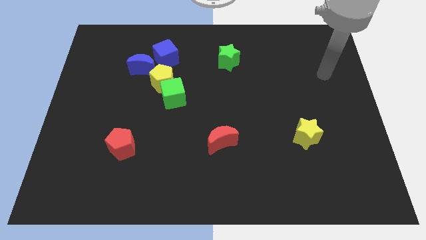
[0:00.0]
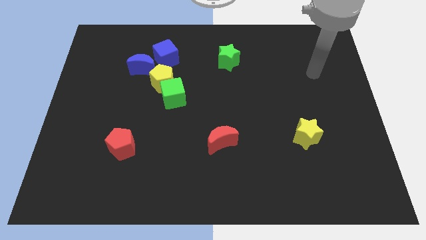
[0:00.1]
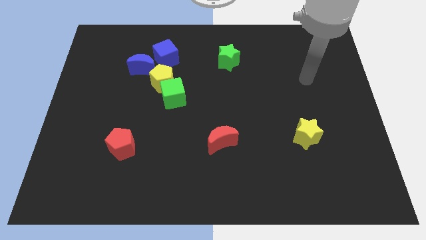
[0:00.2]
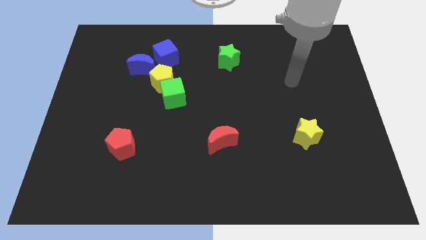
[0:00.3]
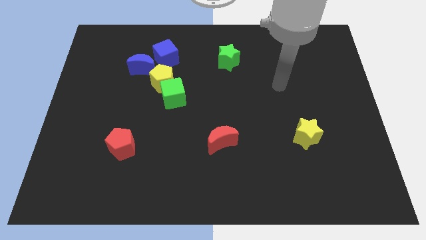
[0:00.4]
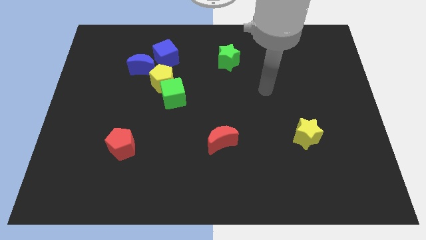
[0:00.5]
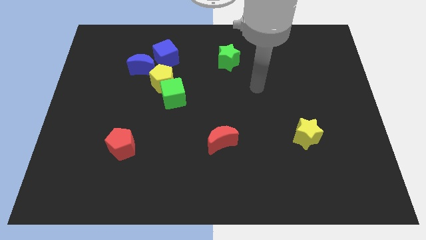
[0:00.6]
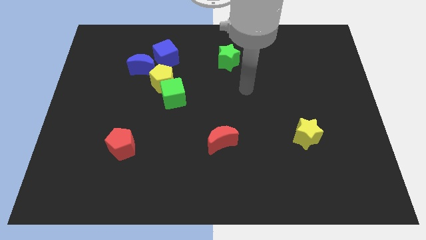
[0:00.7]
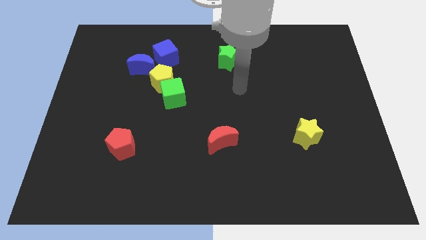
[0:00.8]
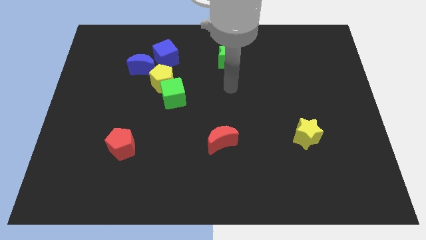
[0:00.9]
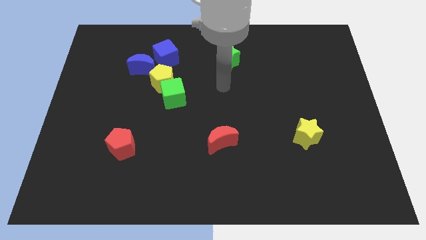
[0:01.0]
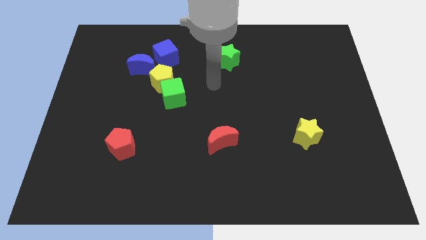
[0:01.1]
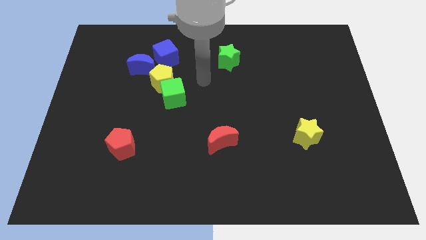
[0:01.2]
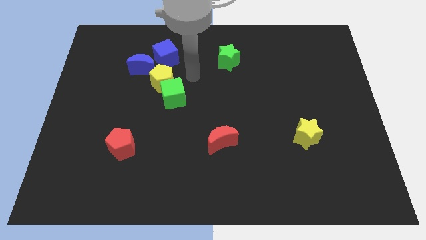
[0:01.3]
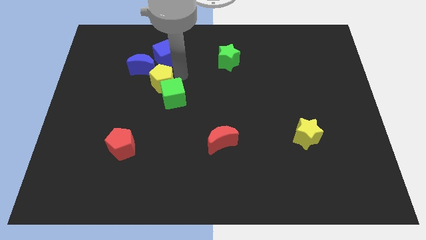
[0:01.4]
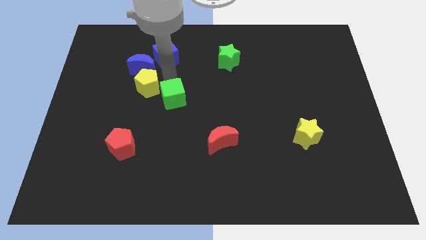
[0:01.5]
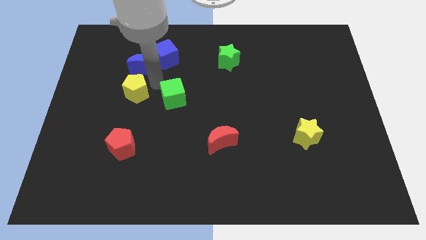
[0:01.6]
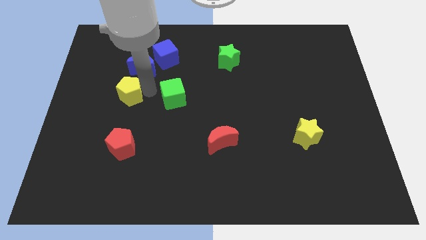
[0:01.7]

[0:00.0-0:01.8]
separate the green cube from the yellow pentagon

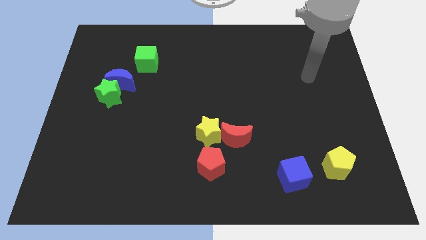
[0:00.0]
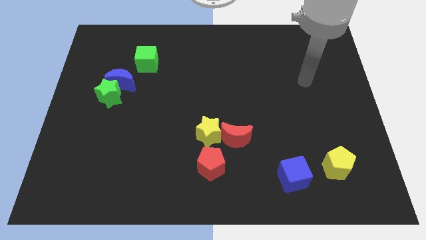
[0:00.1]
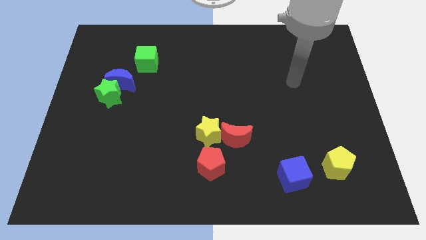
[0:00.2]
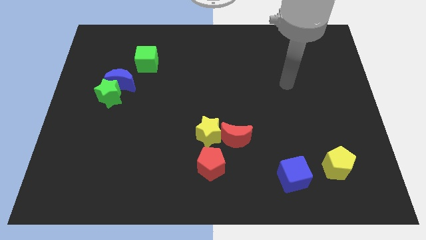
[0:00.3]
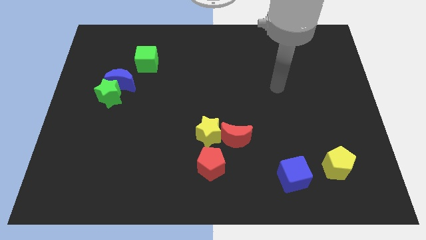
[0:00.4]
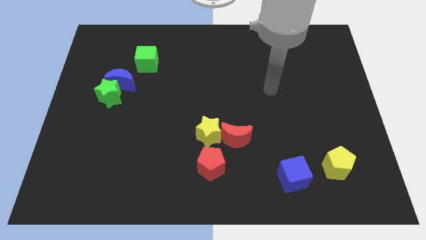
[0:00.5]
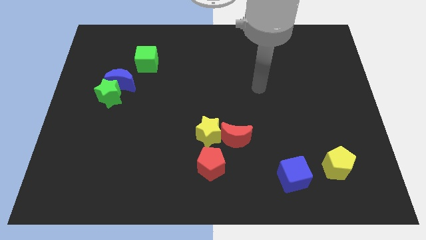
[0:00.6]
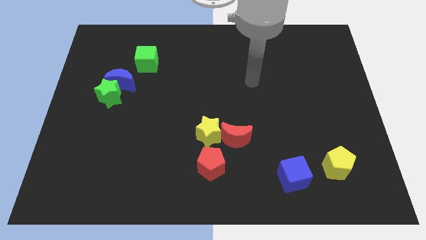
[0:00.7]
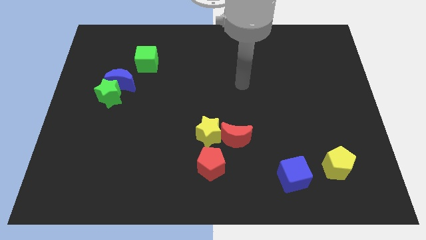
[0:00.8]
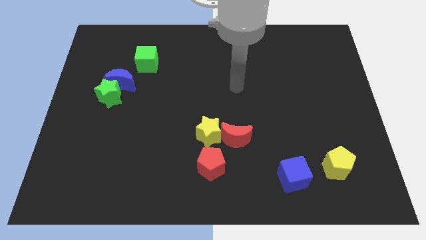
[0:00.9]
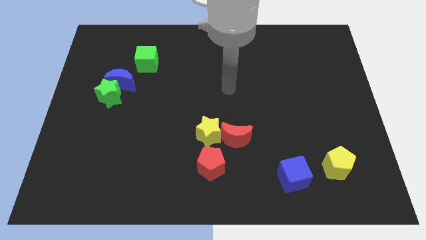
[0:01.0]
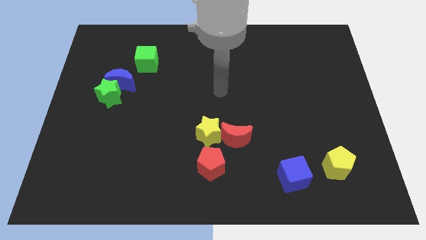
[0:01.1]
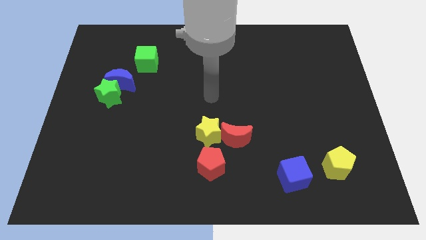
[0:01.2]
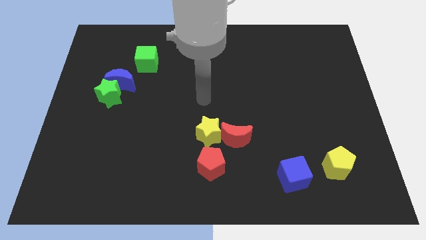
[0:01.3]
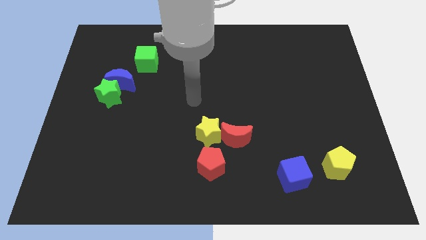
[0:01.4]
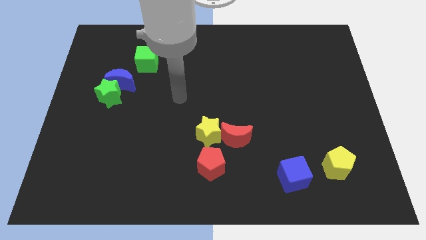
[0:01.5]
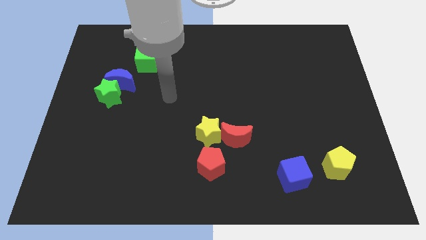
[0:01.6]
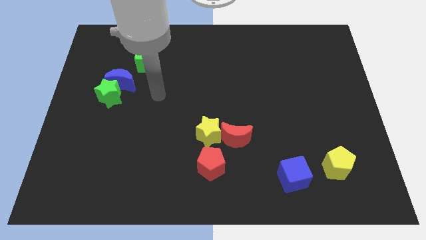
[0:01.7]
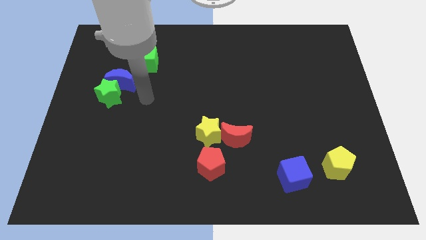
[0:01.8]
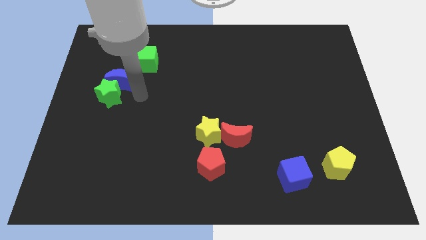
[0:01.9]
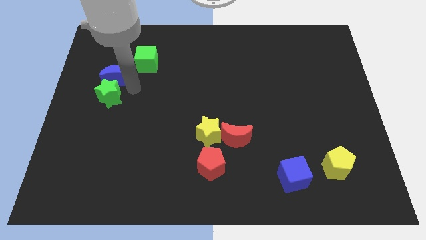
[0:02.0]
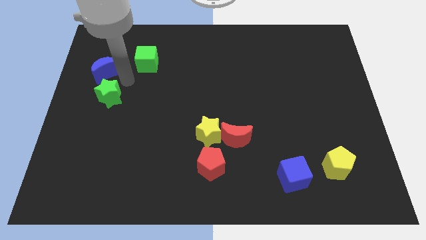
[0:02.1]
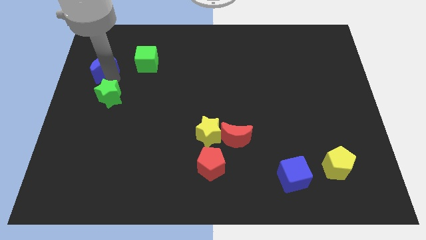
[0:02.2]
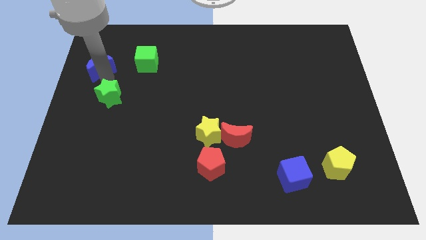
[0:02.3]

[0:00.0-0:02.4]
pull the green star apart from the blue moon

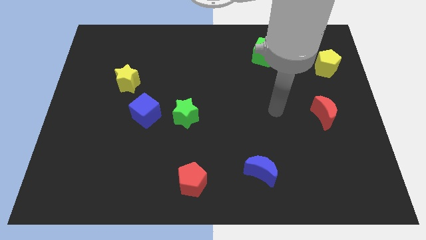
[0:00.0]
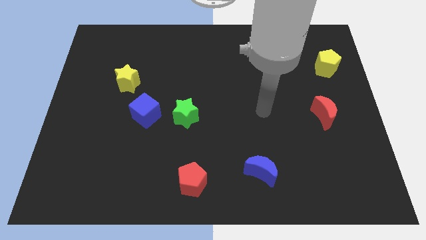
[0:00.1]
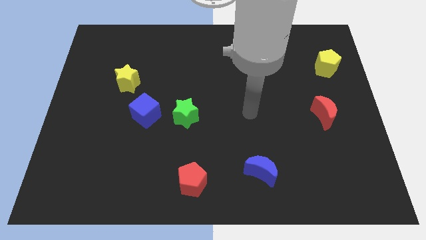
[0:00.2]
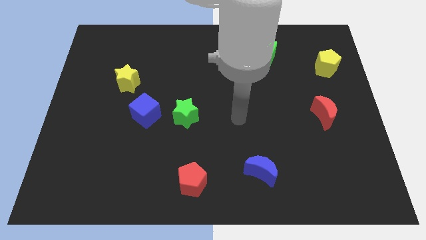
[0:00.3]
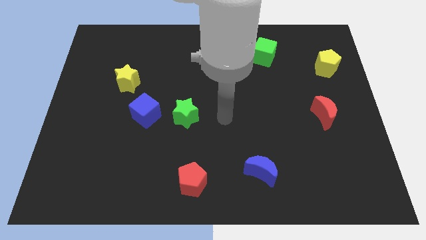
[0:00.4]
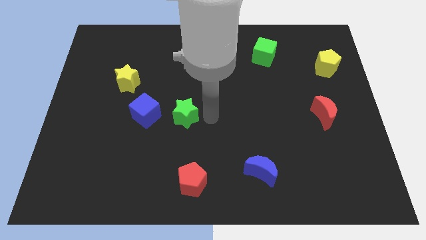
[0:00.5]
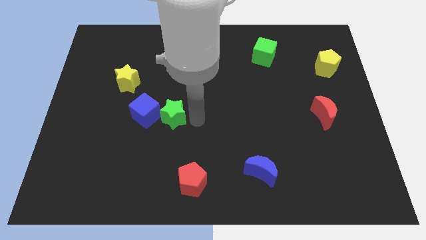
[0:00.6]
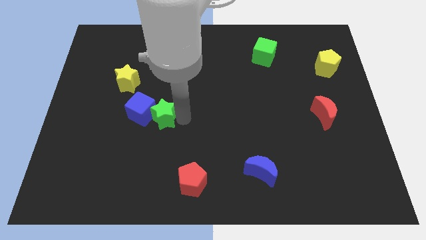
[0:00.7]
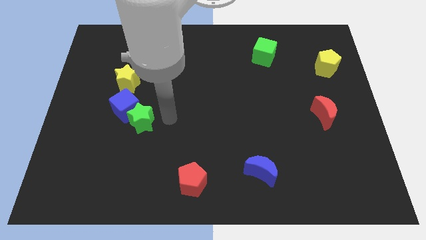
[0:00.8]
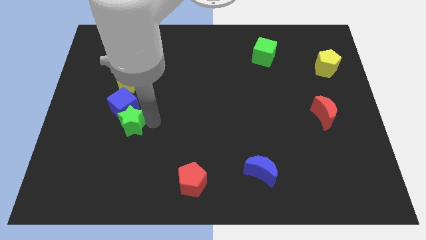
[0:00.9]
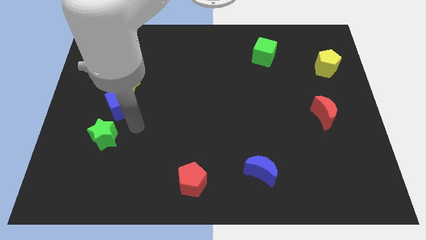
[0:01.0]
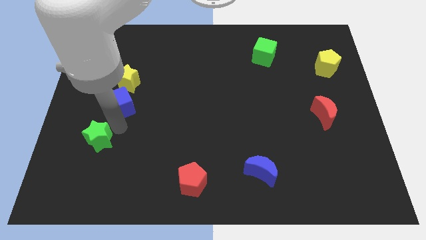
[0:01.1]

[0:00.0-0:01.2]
pull the blue cube apart from the green star

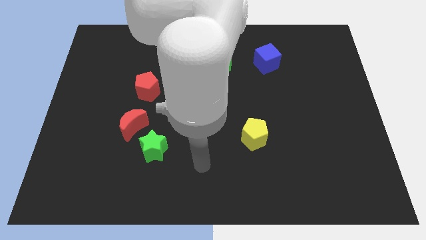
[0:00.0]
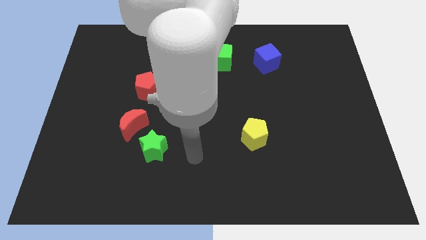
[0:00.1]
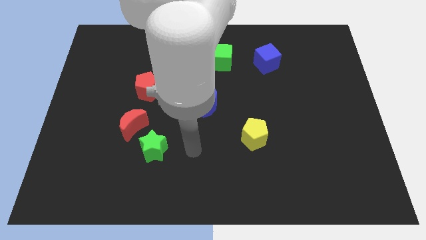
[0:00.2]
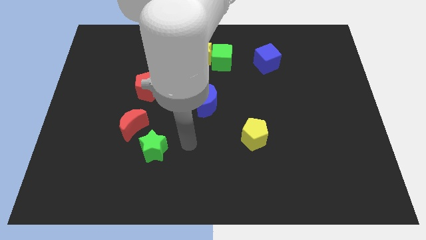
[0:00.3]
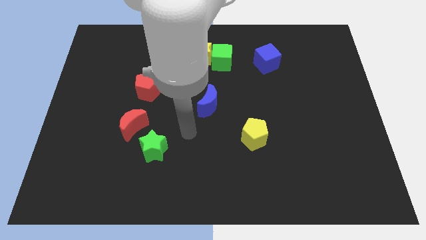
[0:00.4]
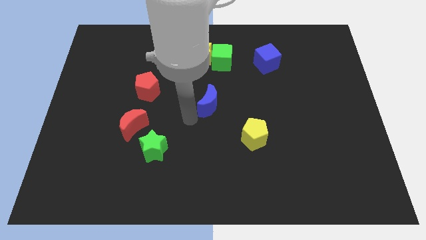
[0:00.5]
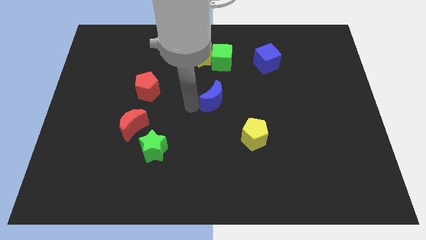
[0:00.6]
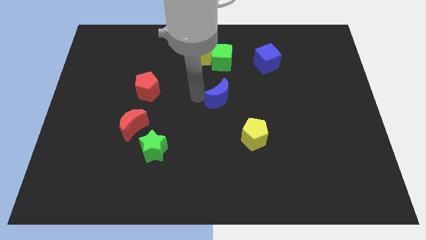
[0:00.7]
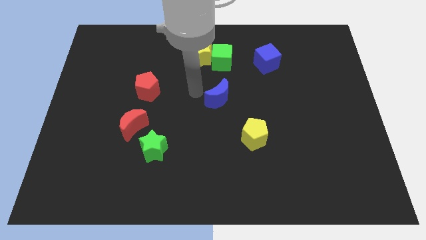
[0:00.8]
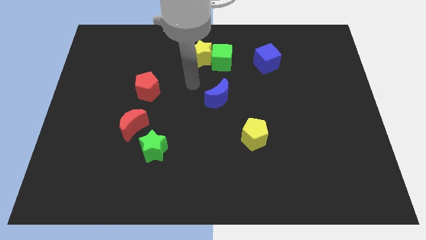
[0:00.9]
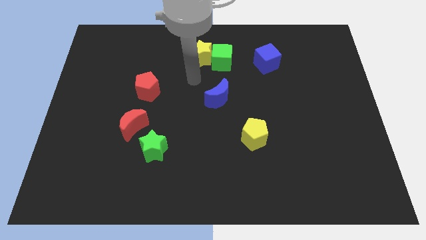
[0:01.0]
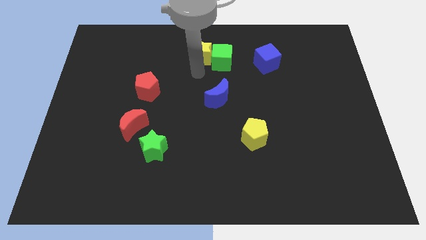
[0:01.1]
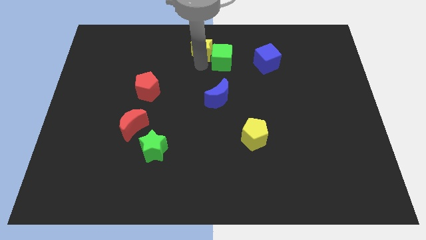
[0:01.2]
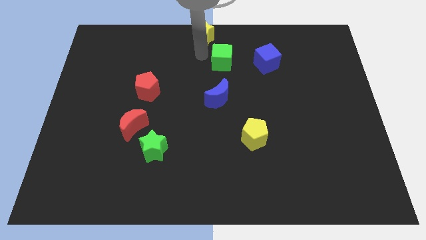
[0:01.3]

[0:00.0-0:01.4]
move the green cube away from the yellow star

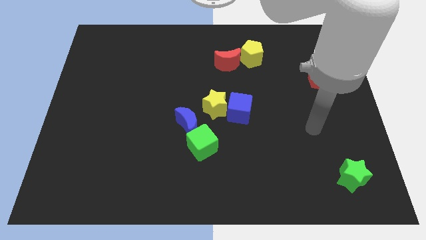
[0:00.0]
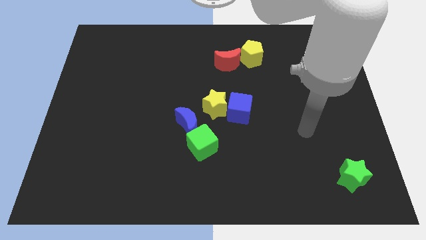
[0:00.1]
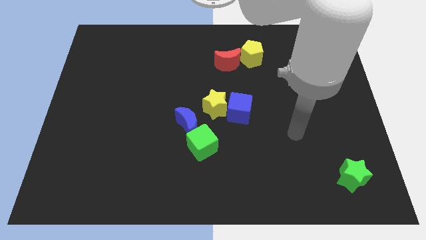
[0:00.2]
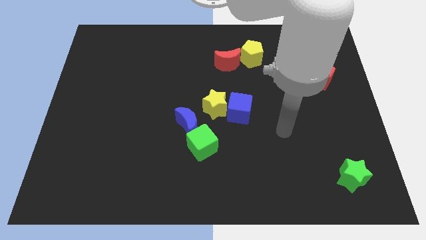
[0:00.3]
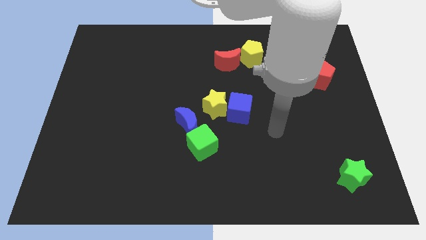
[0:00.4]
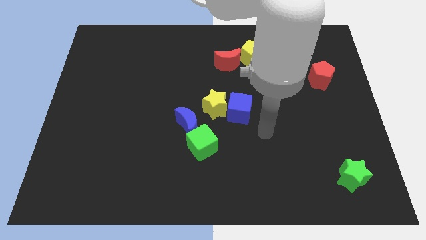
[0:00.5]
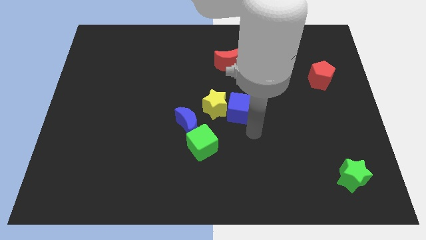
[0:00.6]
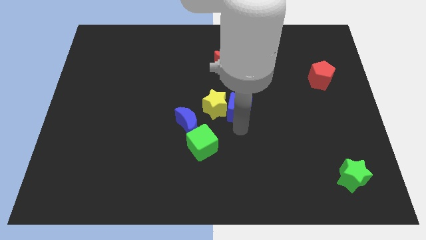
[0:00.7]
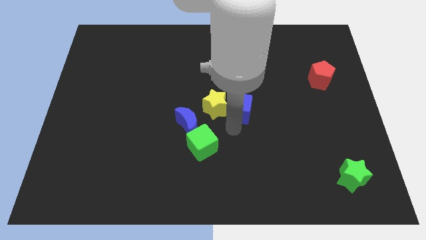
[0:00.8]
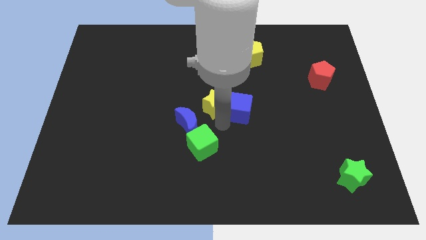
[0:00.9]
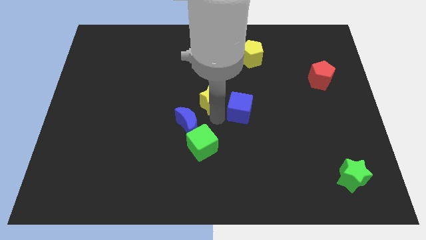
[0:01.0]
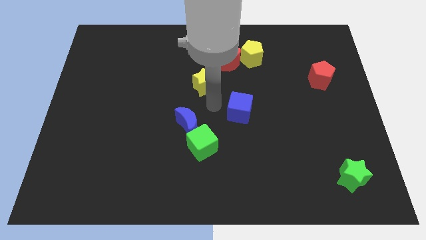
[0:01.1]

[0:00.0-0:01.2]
separate the blue cube from the yellow star

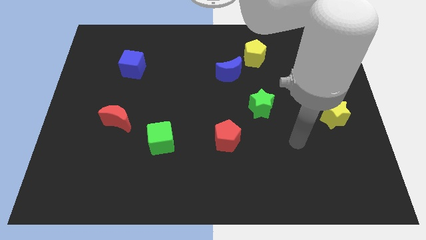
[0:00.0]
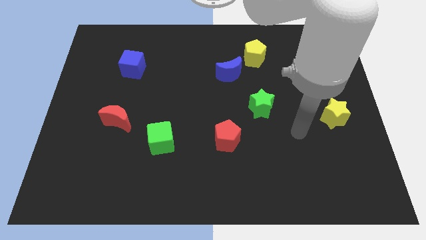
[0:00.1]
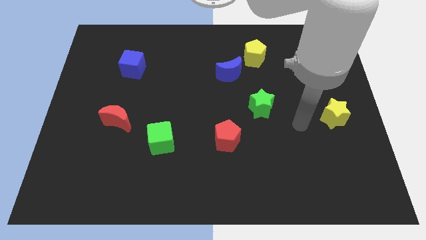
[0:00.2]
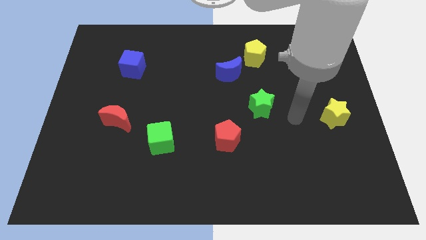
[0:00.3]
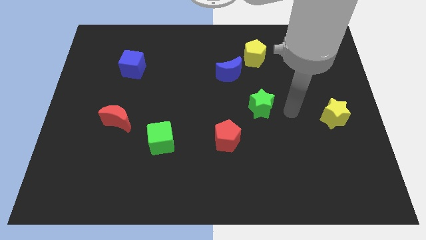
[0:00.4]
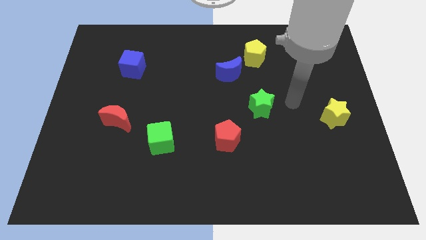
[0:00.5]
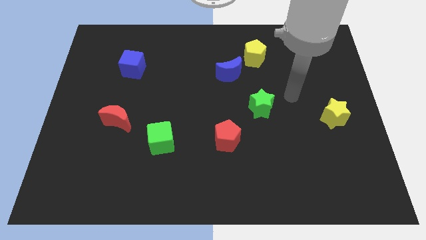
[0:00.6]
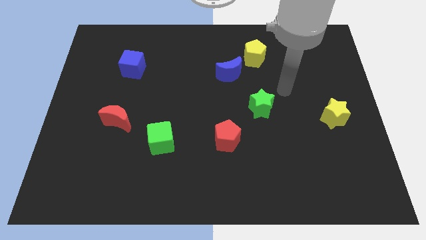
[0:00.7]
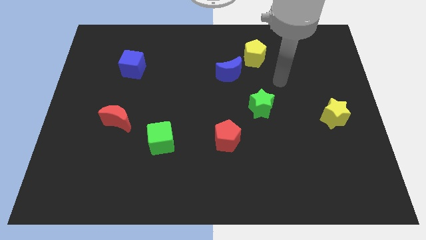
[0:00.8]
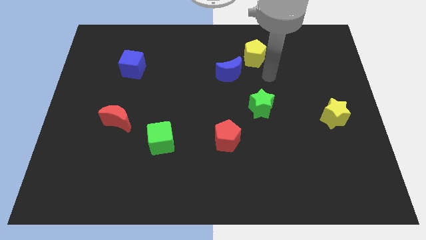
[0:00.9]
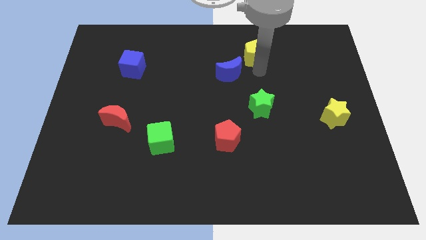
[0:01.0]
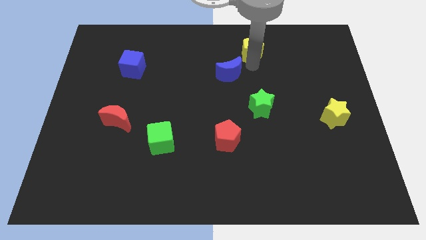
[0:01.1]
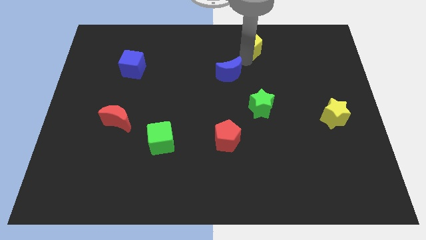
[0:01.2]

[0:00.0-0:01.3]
pull the blue moon apart from the yellow pentagon

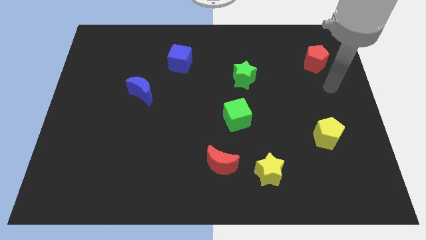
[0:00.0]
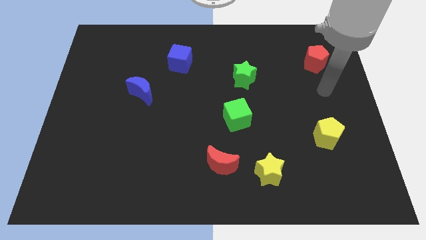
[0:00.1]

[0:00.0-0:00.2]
separate the red moon from the yellow star
